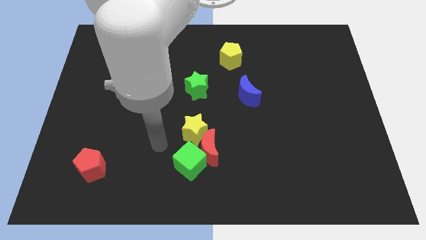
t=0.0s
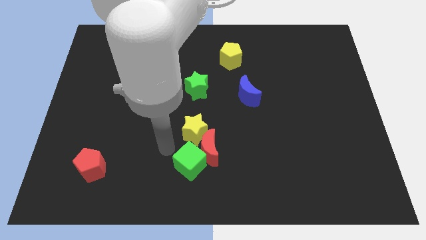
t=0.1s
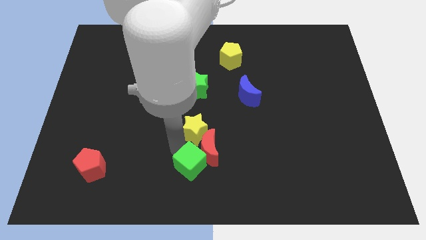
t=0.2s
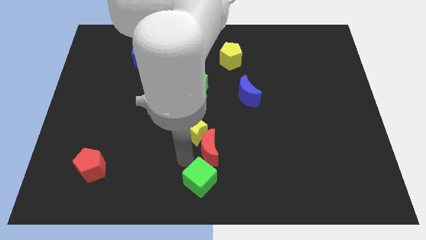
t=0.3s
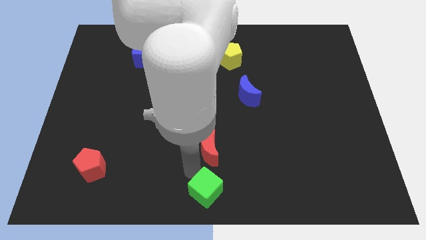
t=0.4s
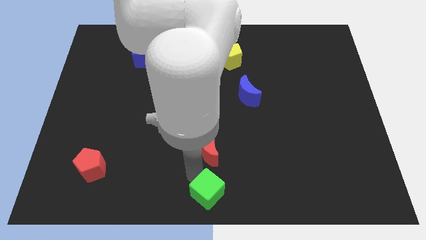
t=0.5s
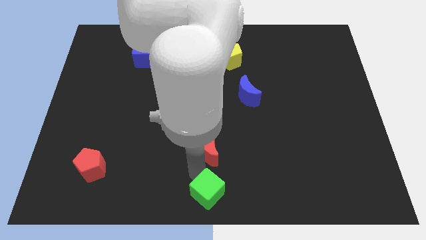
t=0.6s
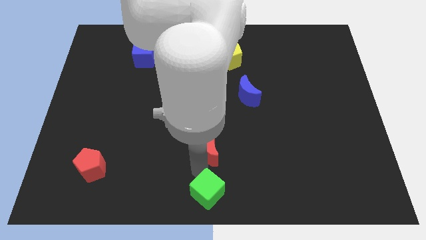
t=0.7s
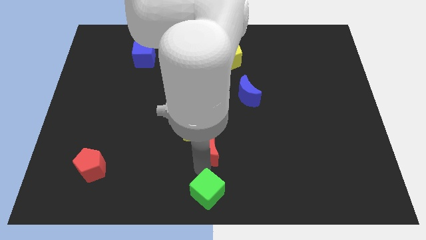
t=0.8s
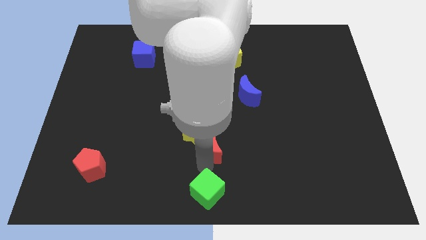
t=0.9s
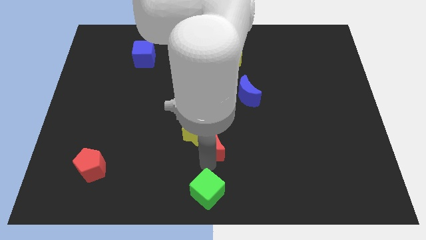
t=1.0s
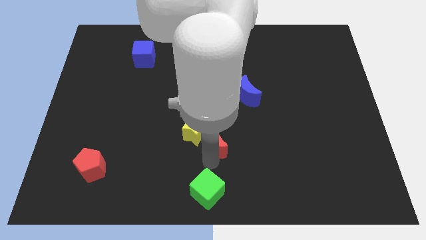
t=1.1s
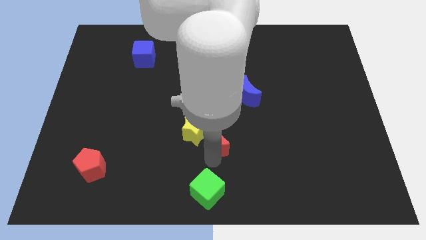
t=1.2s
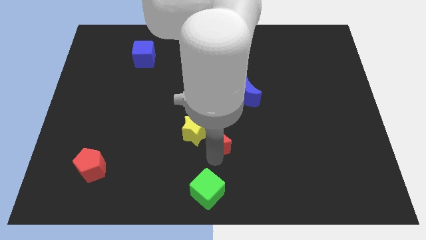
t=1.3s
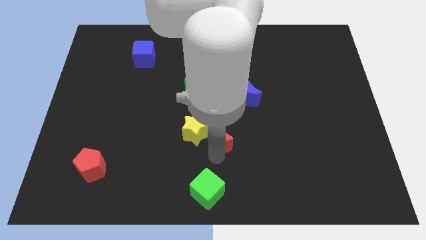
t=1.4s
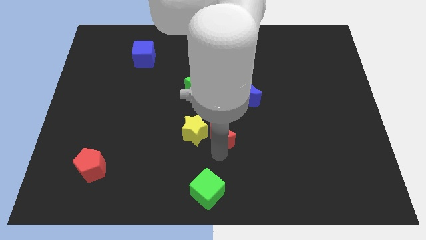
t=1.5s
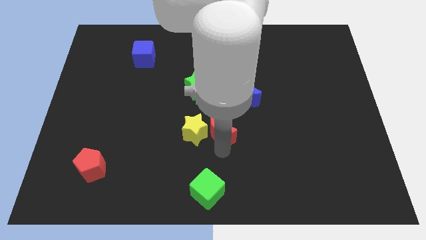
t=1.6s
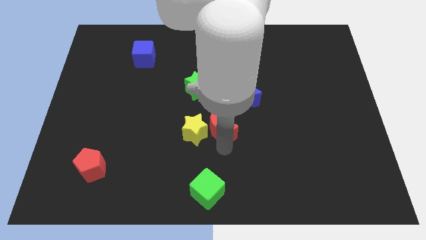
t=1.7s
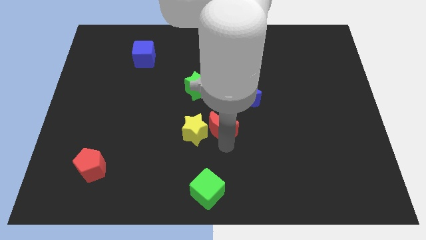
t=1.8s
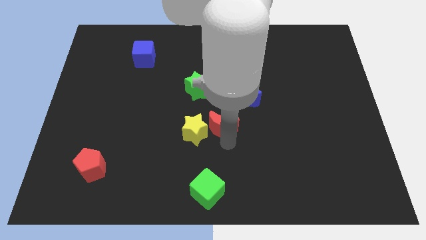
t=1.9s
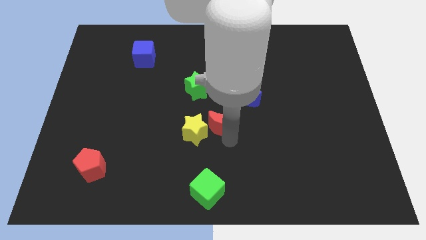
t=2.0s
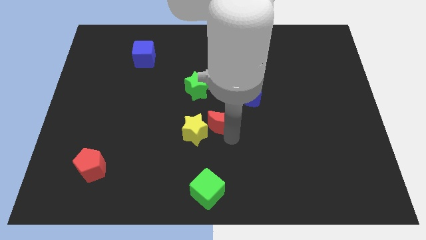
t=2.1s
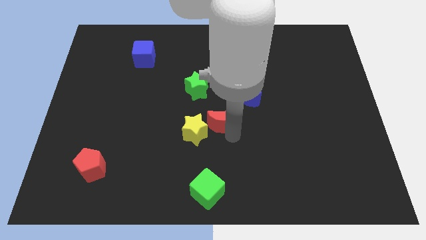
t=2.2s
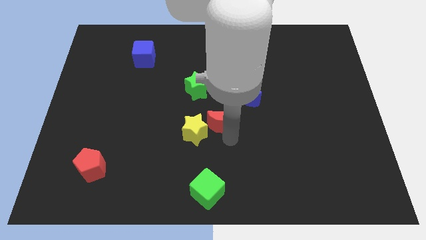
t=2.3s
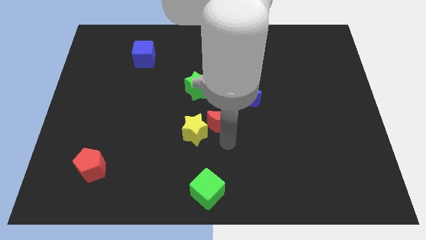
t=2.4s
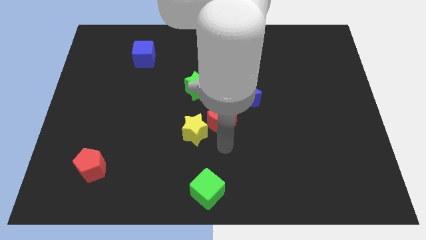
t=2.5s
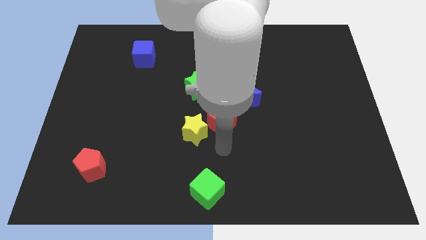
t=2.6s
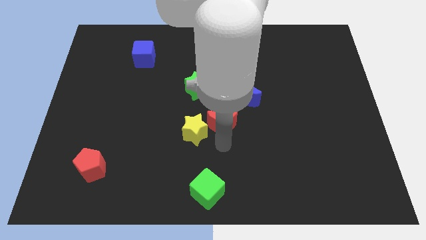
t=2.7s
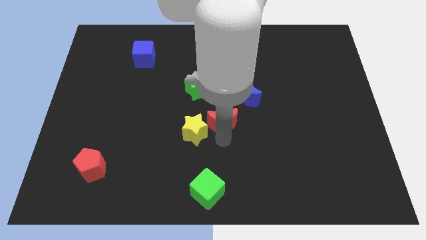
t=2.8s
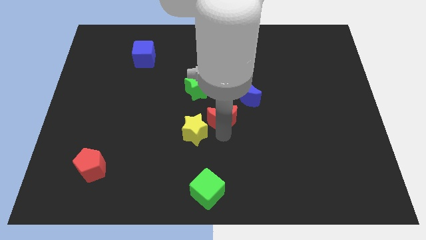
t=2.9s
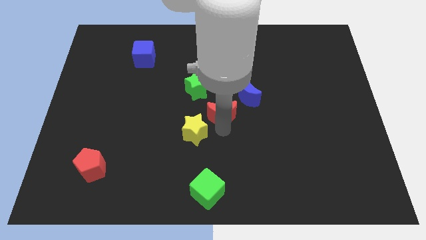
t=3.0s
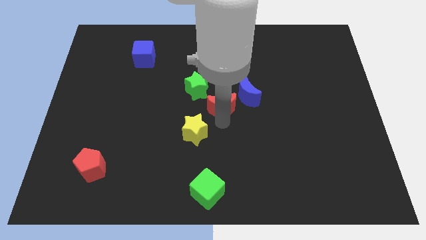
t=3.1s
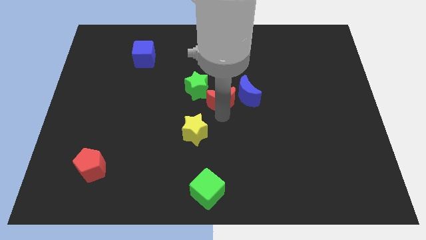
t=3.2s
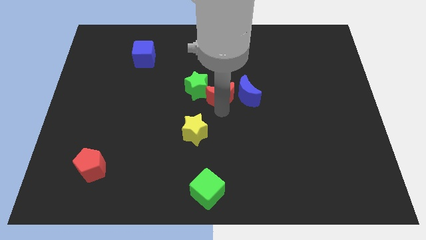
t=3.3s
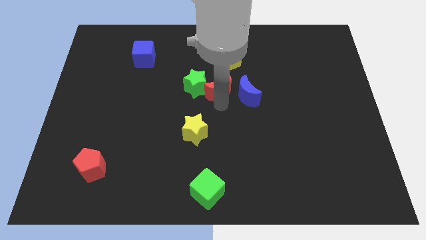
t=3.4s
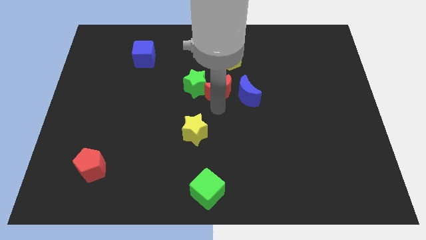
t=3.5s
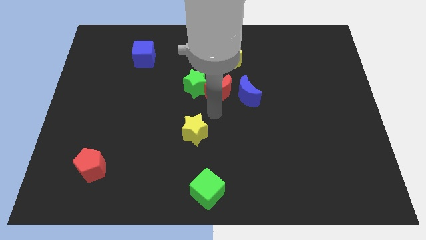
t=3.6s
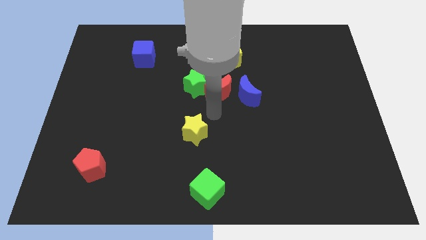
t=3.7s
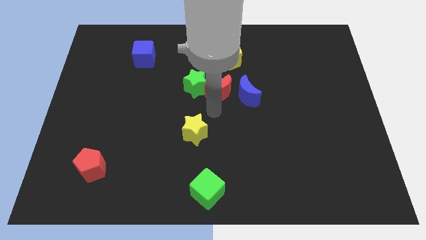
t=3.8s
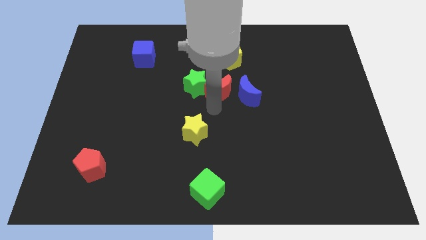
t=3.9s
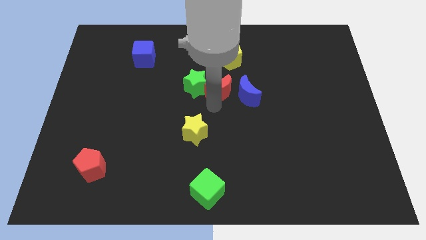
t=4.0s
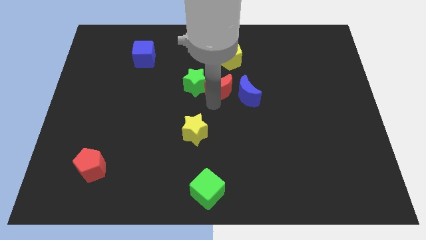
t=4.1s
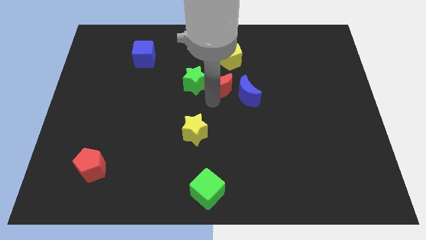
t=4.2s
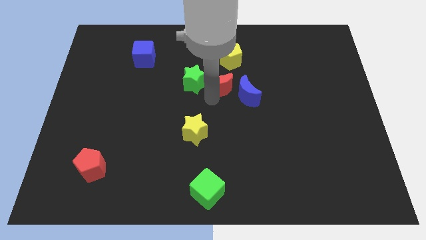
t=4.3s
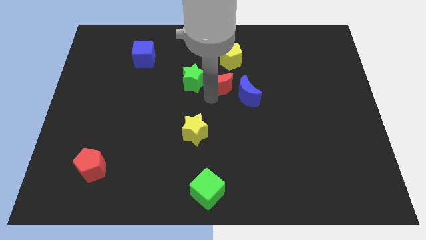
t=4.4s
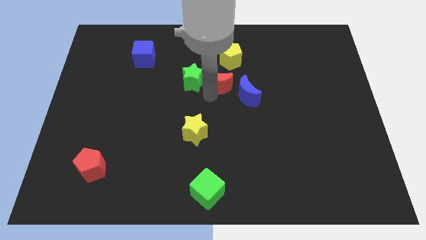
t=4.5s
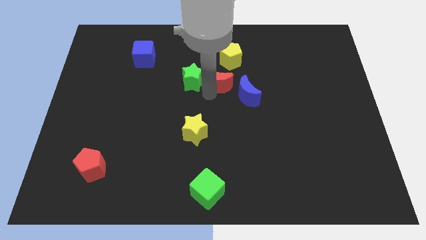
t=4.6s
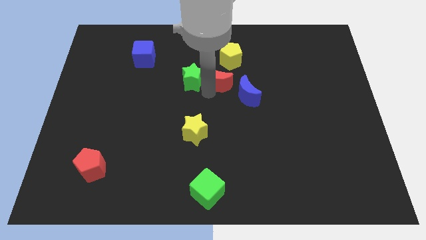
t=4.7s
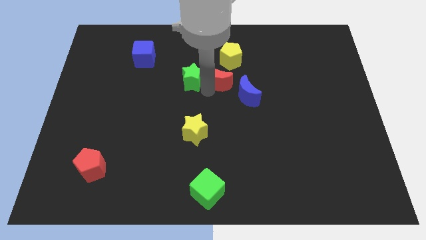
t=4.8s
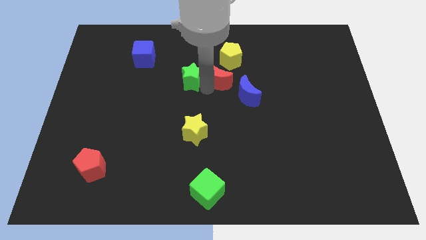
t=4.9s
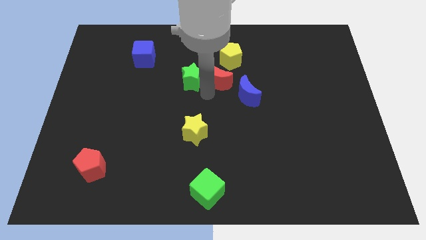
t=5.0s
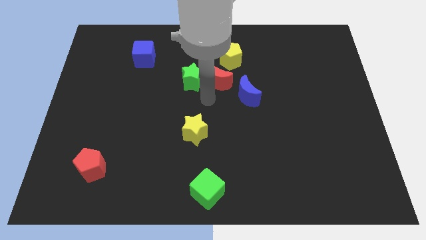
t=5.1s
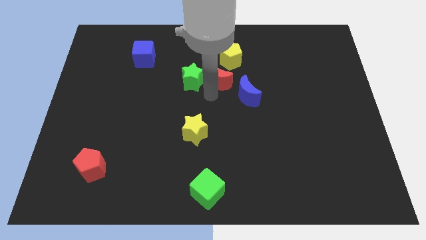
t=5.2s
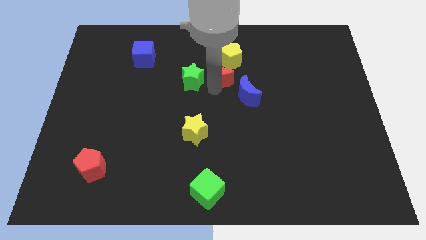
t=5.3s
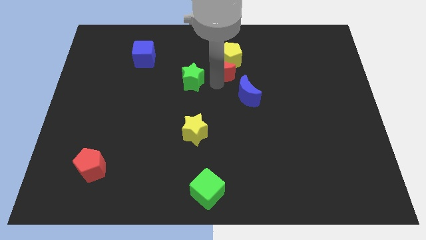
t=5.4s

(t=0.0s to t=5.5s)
move the red moon to the yellow pentagon

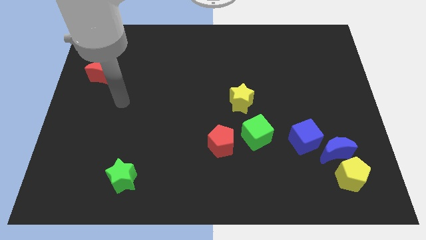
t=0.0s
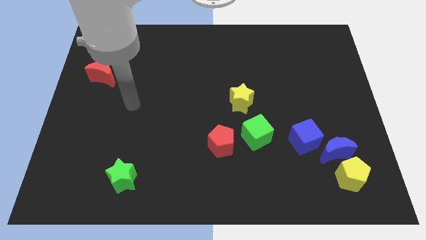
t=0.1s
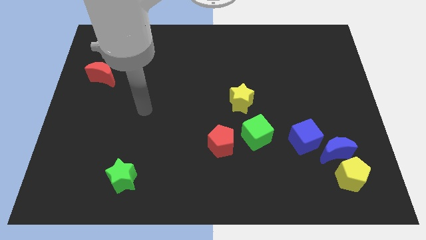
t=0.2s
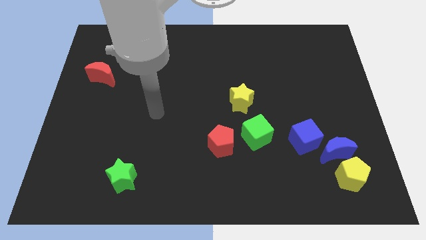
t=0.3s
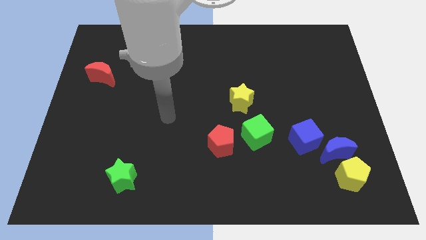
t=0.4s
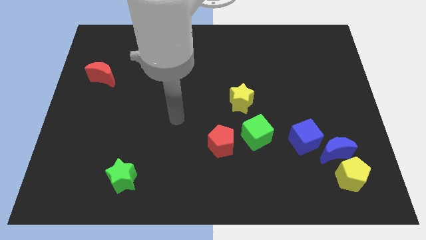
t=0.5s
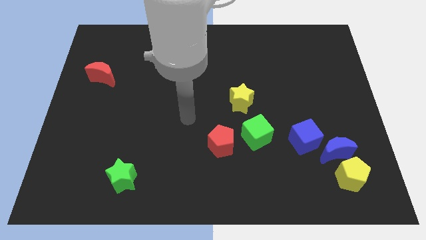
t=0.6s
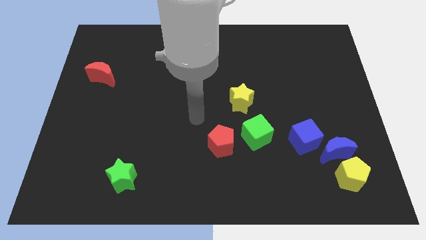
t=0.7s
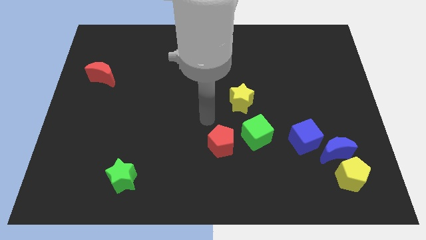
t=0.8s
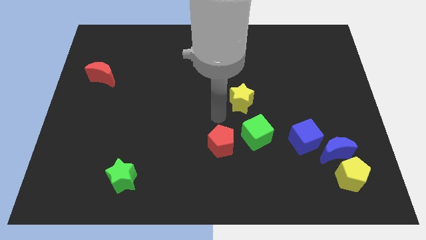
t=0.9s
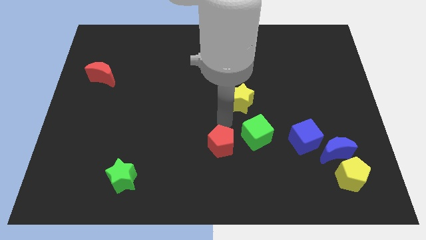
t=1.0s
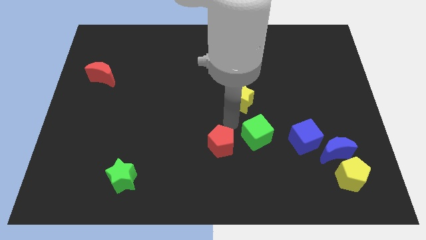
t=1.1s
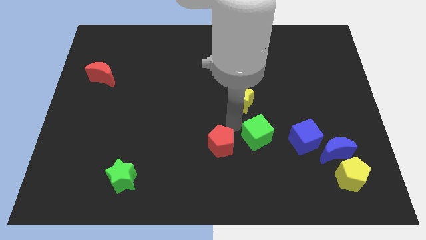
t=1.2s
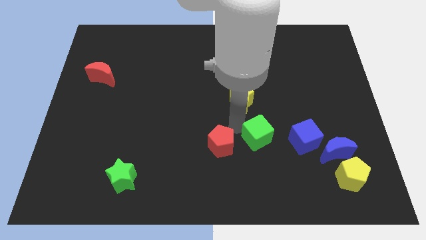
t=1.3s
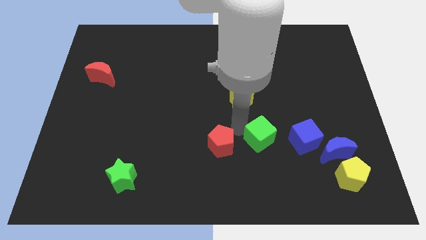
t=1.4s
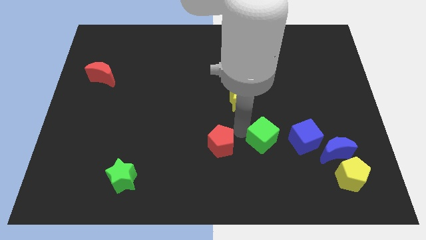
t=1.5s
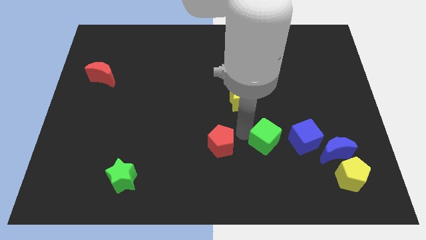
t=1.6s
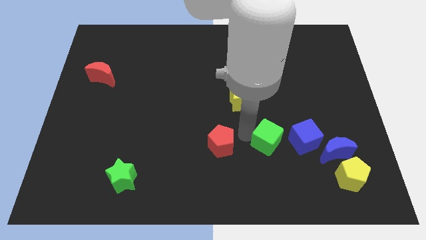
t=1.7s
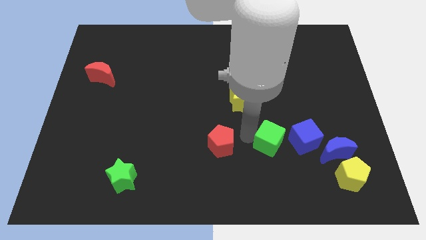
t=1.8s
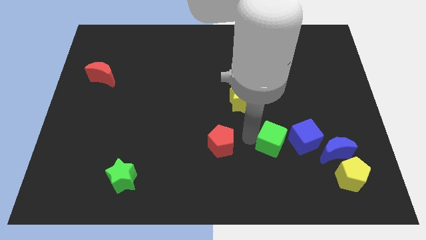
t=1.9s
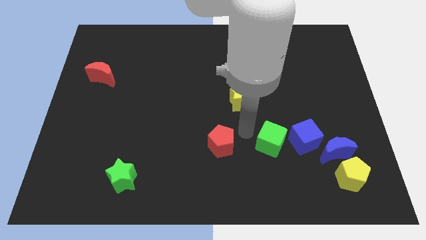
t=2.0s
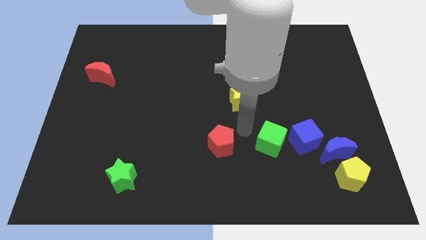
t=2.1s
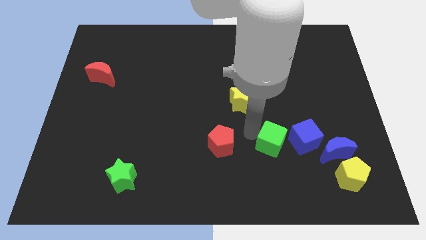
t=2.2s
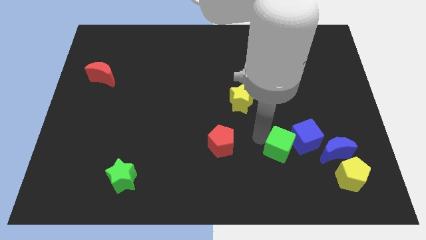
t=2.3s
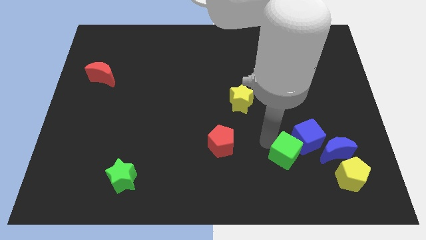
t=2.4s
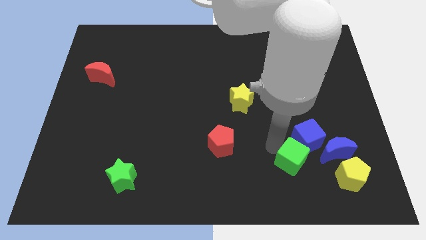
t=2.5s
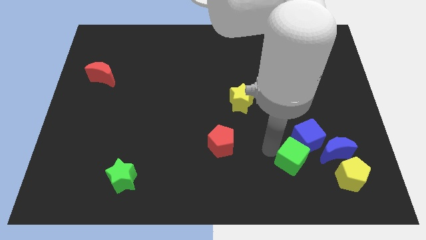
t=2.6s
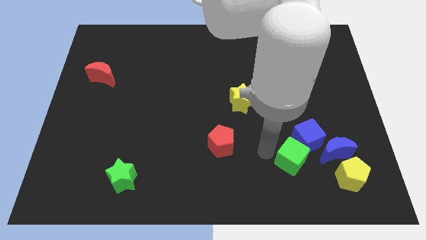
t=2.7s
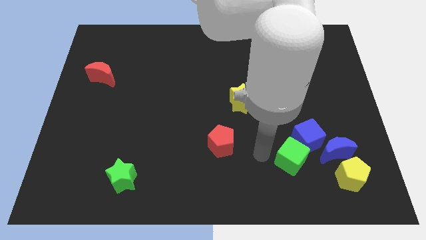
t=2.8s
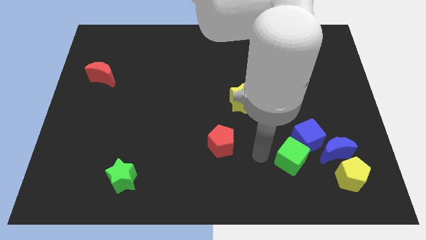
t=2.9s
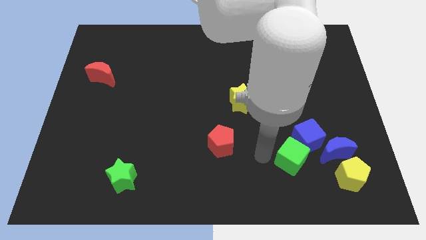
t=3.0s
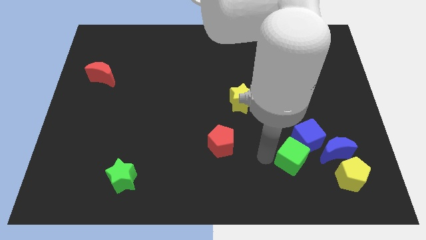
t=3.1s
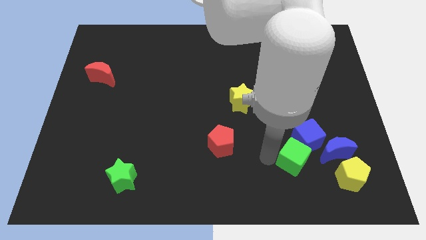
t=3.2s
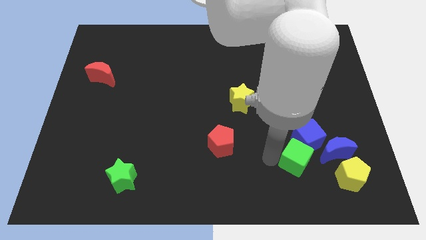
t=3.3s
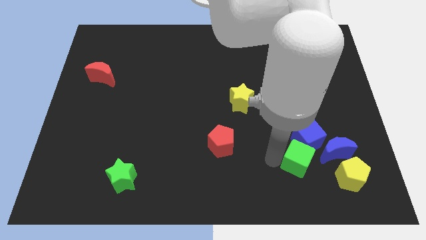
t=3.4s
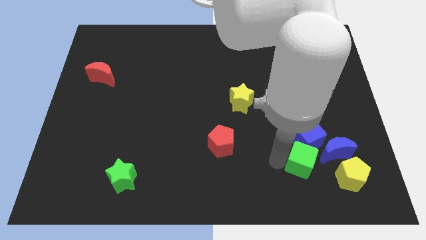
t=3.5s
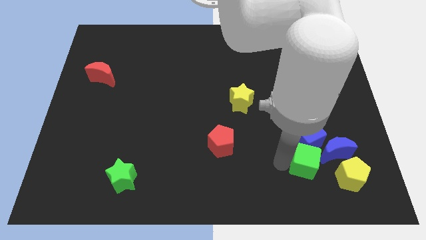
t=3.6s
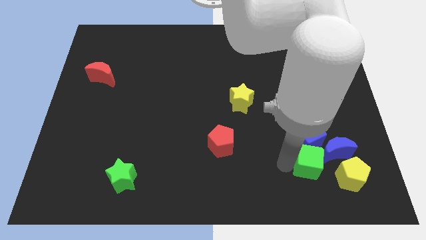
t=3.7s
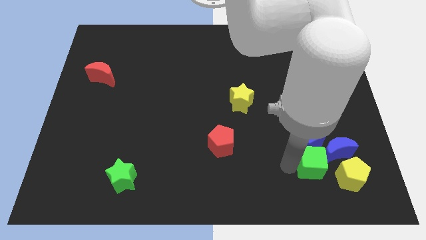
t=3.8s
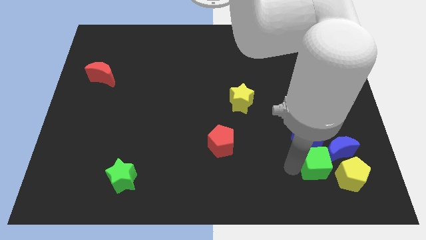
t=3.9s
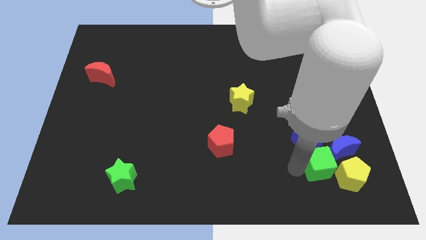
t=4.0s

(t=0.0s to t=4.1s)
put the green cube towards the blue moon
